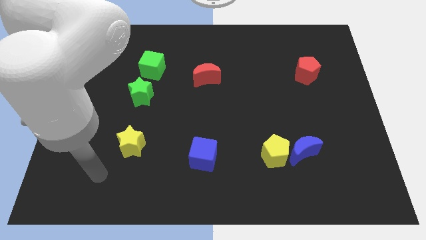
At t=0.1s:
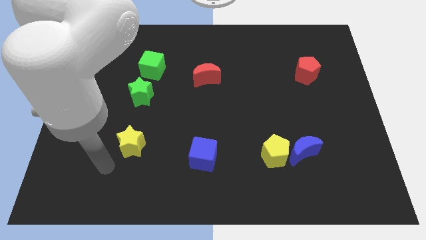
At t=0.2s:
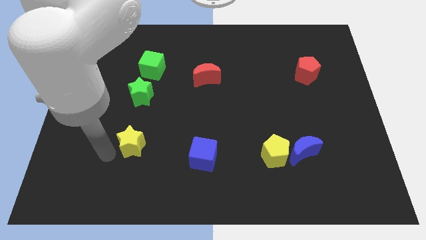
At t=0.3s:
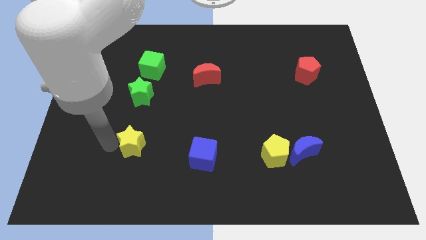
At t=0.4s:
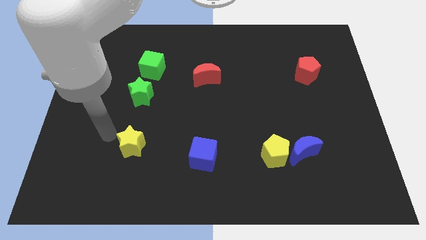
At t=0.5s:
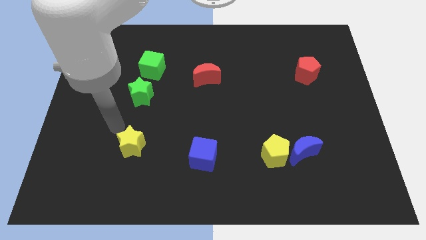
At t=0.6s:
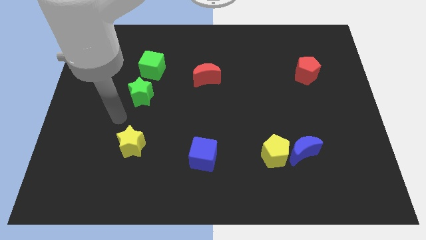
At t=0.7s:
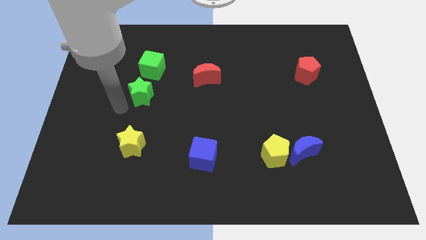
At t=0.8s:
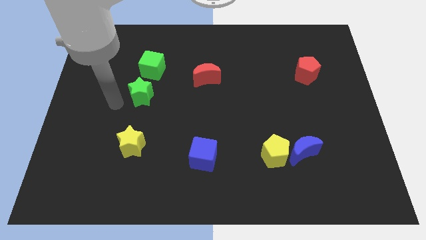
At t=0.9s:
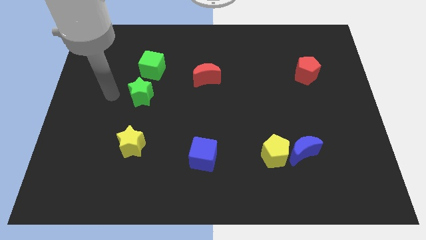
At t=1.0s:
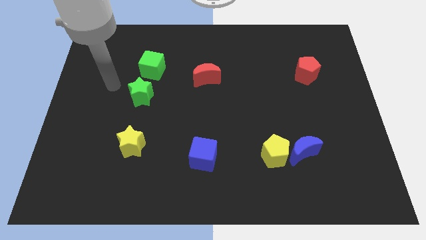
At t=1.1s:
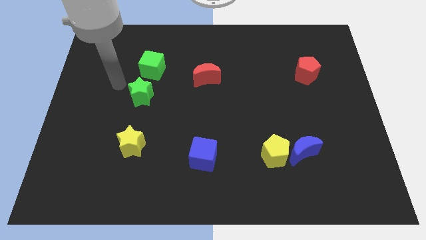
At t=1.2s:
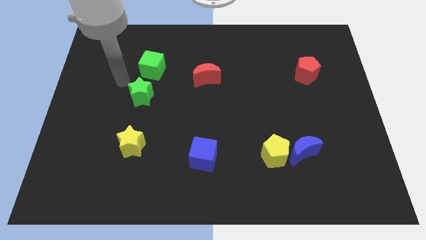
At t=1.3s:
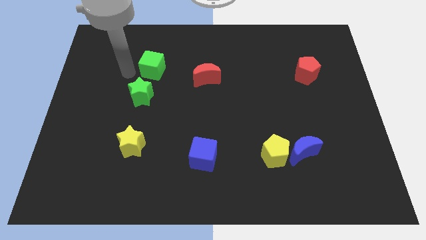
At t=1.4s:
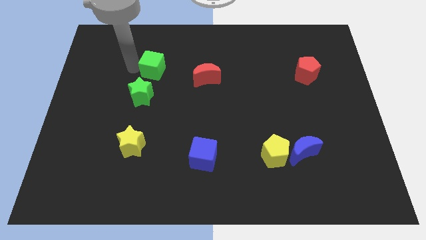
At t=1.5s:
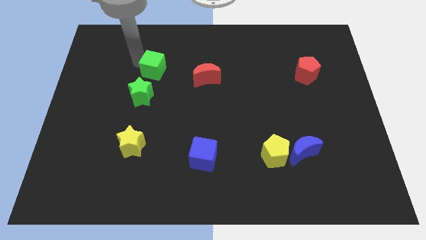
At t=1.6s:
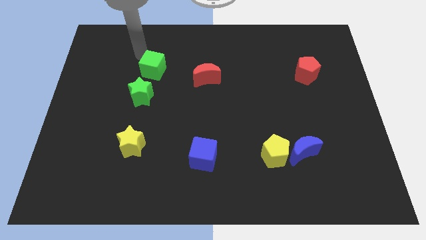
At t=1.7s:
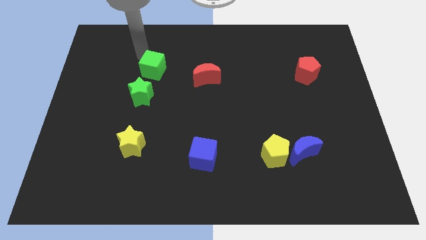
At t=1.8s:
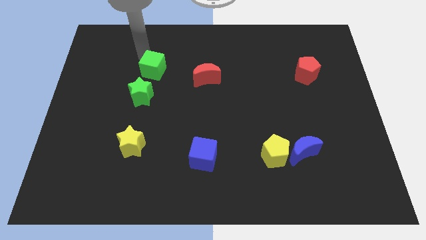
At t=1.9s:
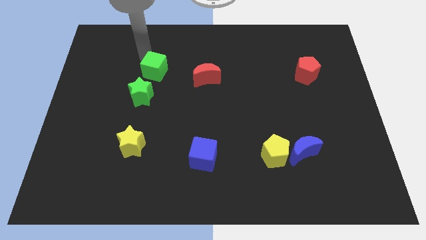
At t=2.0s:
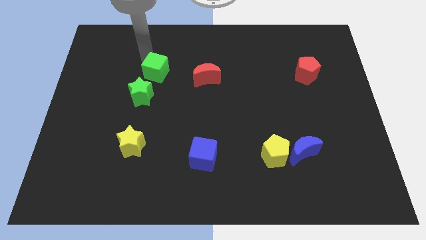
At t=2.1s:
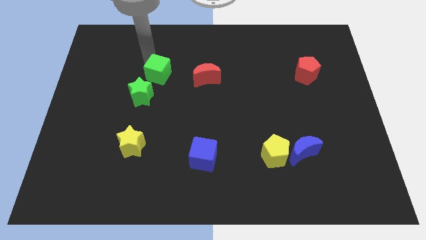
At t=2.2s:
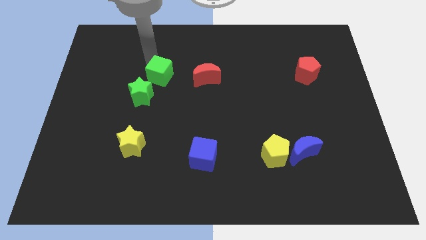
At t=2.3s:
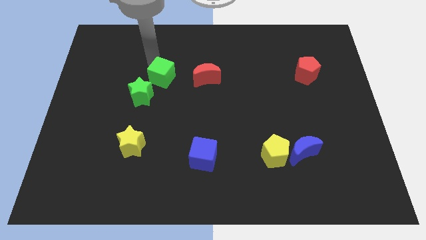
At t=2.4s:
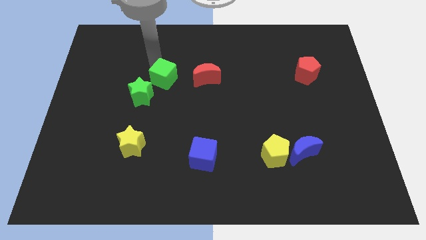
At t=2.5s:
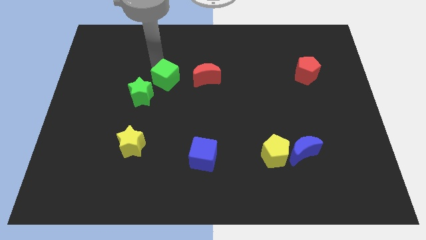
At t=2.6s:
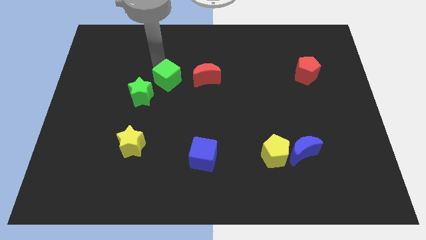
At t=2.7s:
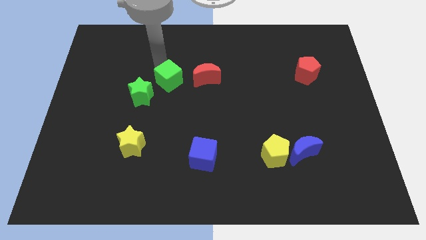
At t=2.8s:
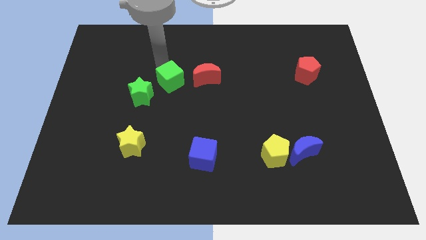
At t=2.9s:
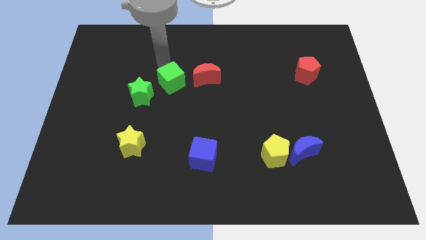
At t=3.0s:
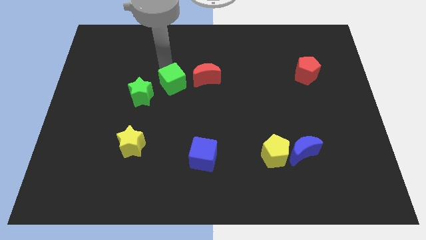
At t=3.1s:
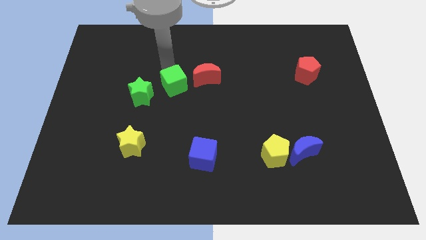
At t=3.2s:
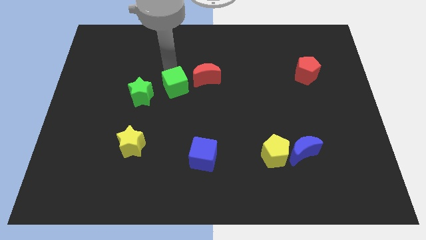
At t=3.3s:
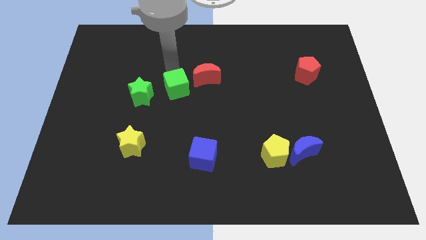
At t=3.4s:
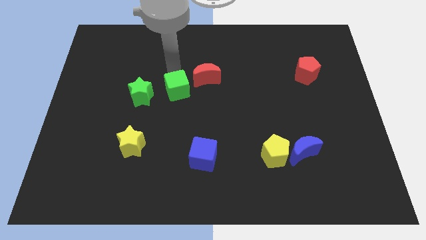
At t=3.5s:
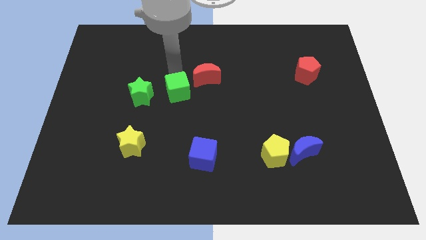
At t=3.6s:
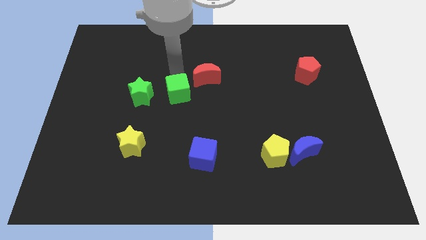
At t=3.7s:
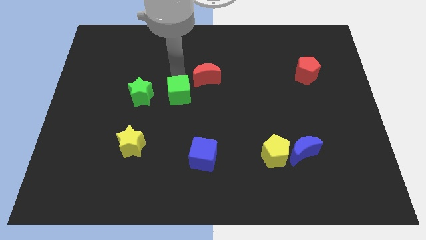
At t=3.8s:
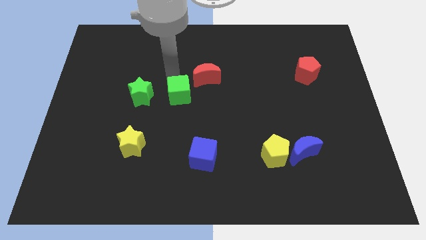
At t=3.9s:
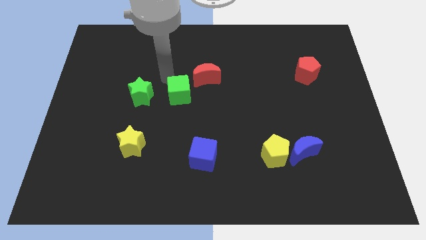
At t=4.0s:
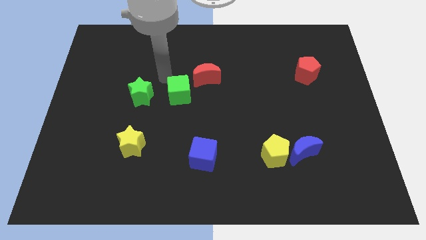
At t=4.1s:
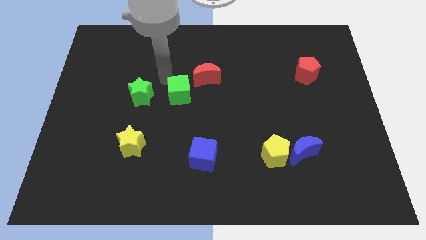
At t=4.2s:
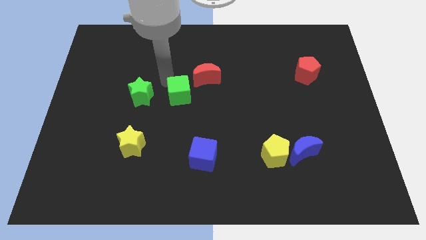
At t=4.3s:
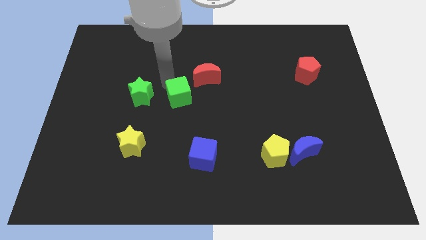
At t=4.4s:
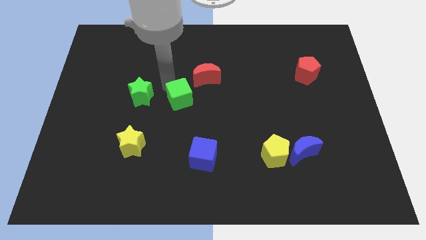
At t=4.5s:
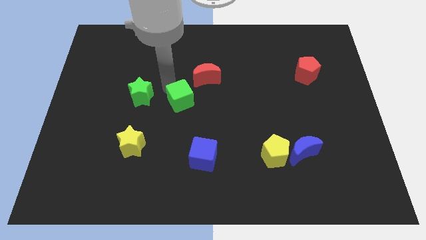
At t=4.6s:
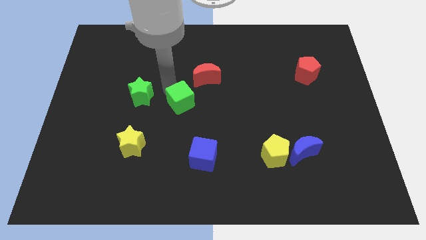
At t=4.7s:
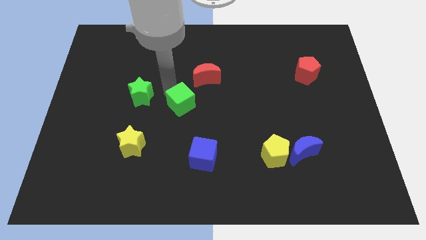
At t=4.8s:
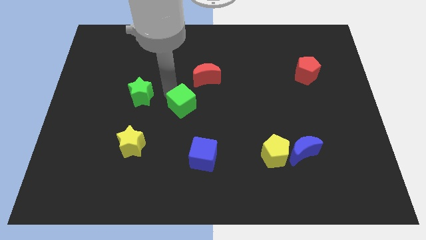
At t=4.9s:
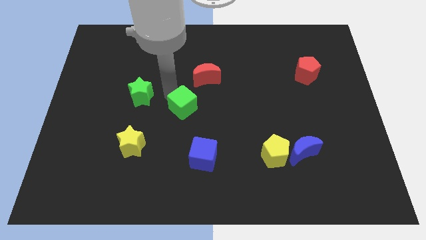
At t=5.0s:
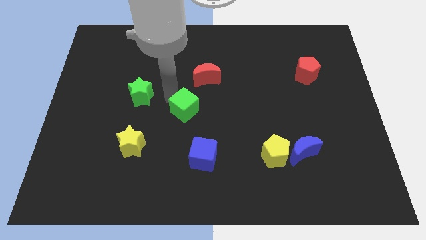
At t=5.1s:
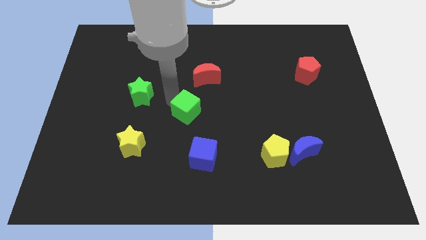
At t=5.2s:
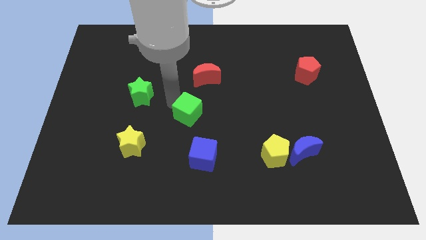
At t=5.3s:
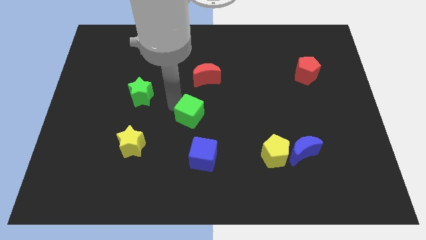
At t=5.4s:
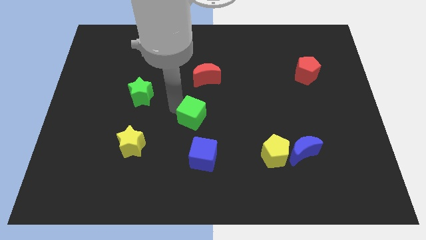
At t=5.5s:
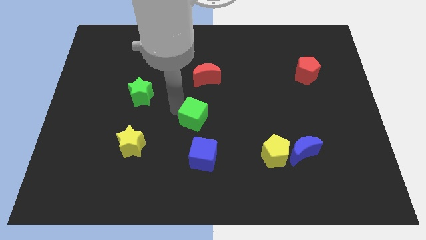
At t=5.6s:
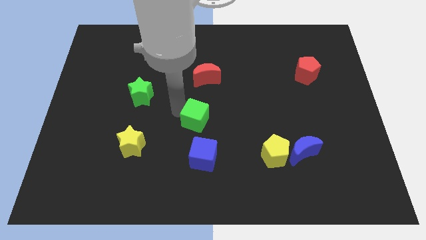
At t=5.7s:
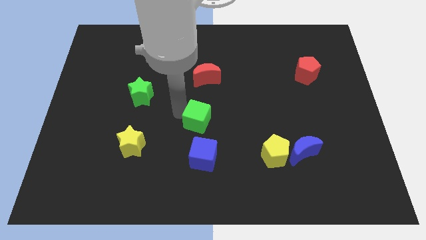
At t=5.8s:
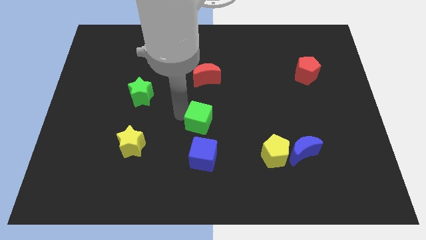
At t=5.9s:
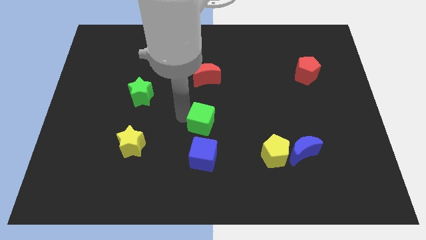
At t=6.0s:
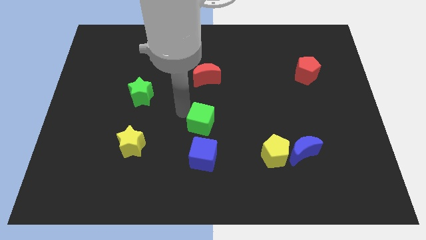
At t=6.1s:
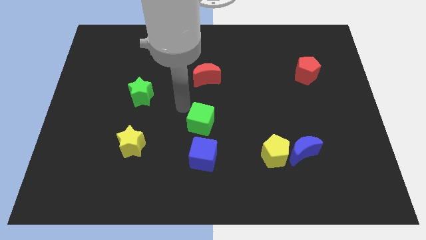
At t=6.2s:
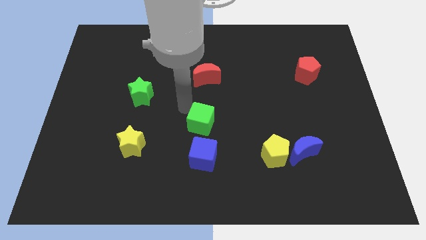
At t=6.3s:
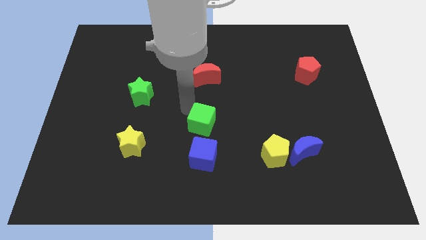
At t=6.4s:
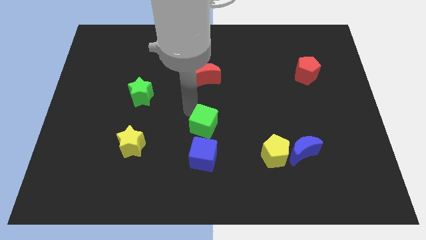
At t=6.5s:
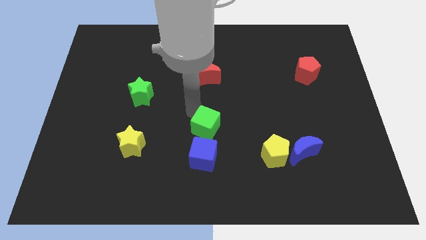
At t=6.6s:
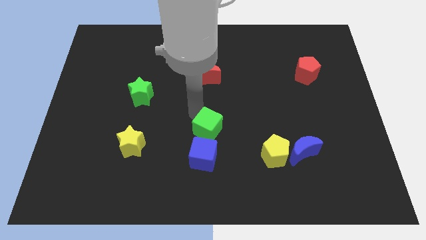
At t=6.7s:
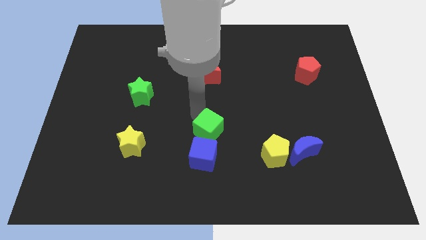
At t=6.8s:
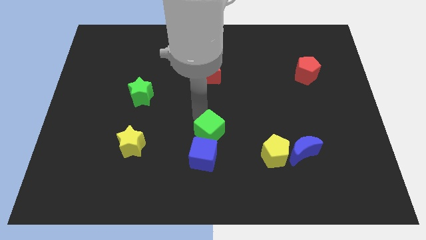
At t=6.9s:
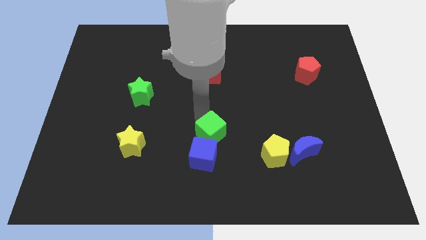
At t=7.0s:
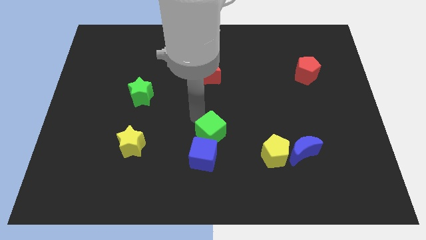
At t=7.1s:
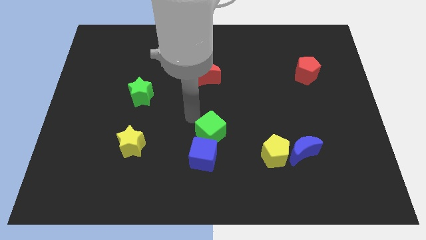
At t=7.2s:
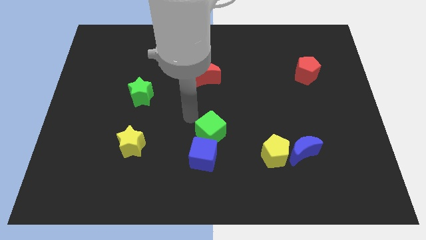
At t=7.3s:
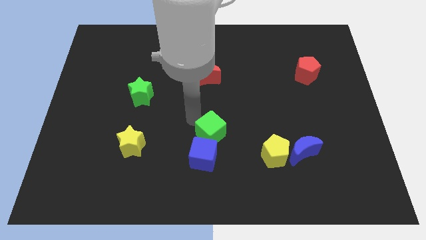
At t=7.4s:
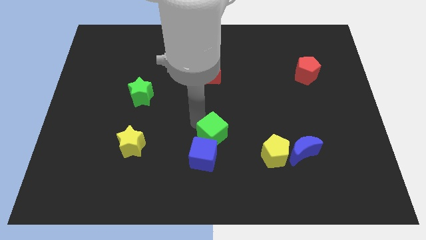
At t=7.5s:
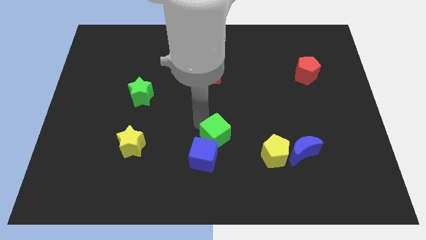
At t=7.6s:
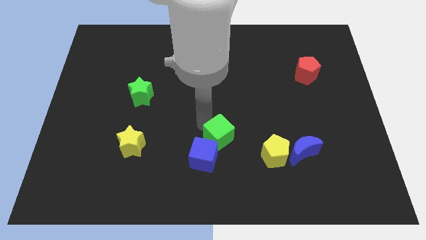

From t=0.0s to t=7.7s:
push the green cube to the left side of the yellow pentagon
